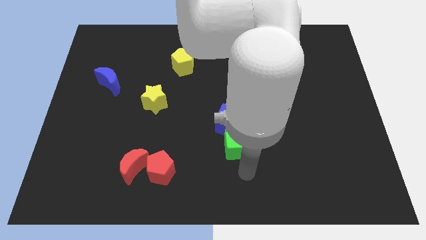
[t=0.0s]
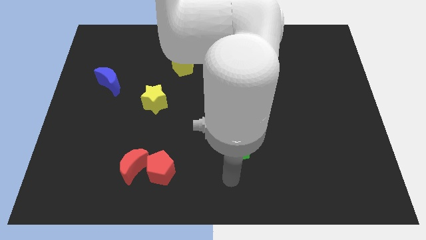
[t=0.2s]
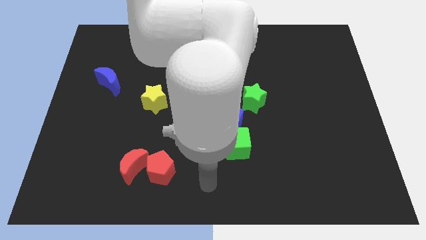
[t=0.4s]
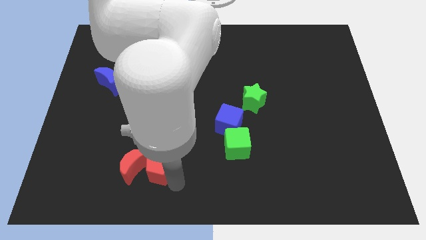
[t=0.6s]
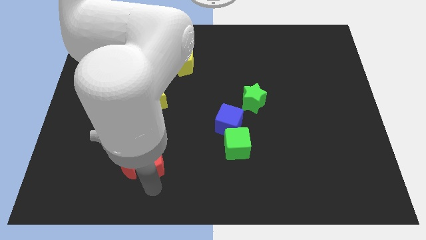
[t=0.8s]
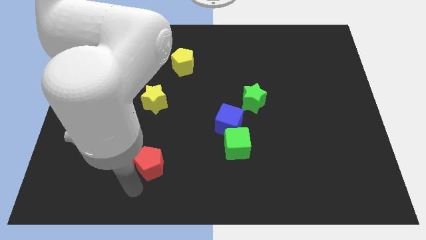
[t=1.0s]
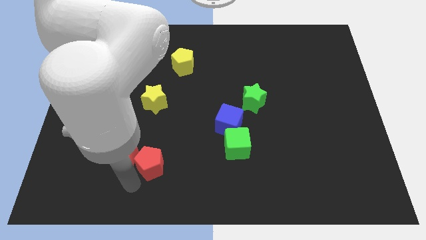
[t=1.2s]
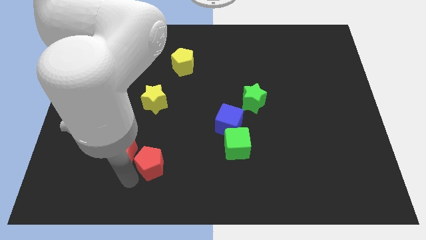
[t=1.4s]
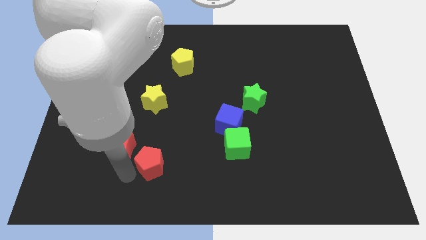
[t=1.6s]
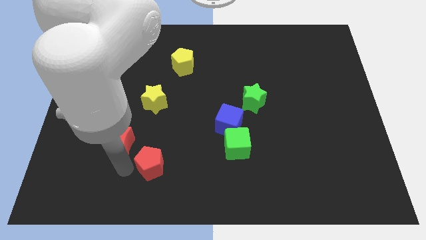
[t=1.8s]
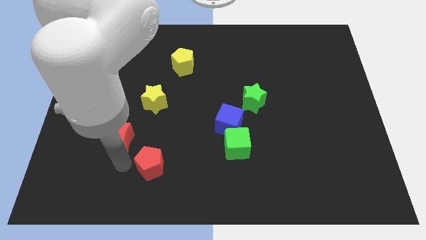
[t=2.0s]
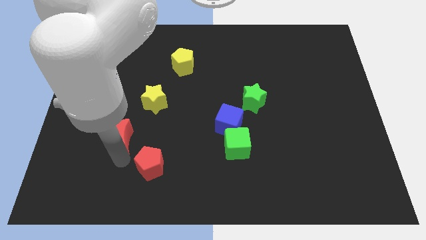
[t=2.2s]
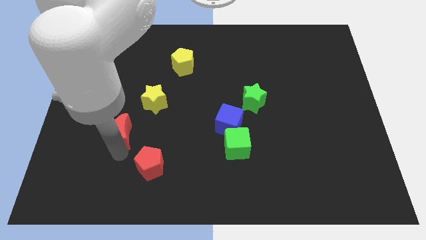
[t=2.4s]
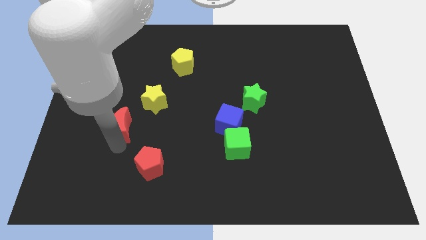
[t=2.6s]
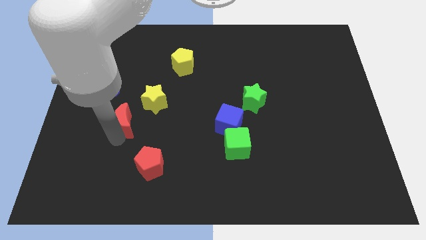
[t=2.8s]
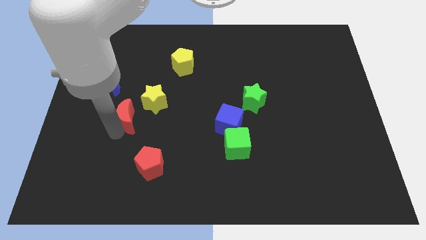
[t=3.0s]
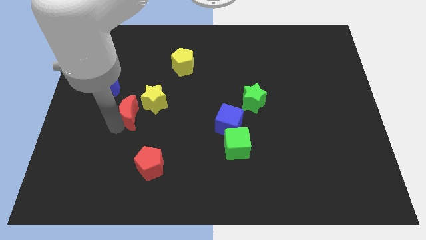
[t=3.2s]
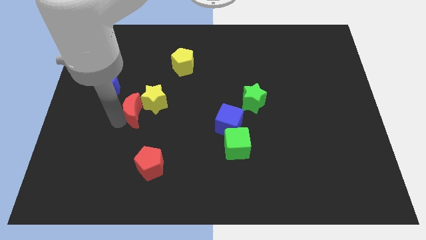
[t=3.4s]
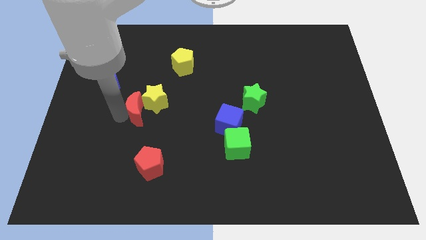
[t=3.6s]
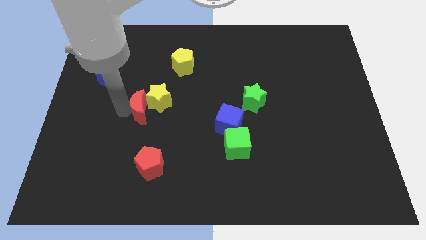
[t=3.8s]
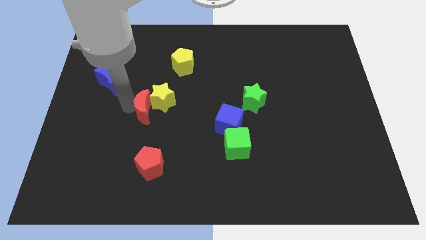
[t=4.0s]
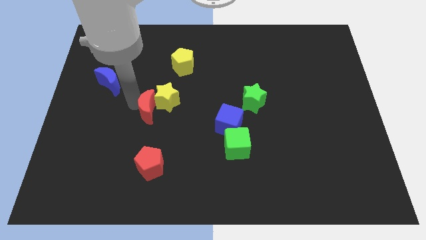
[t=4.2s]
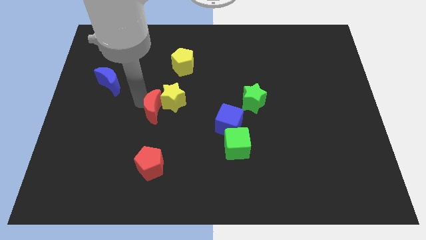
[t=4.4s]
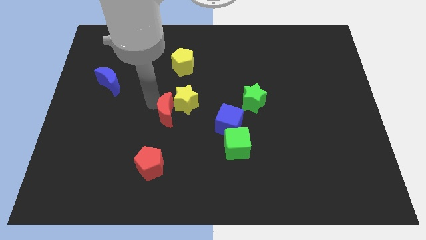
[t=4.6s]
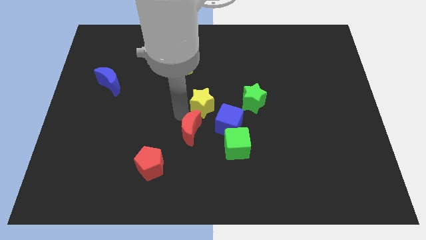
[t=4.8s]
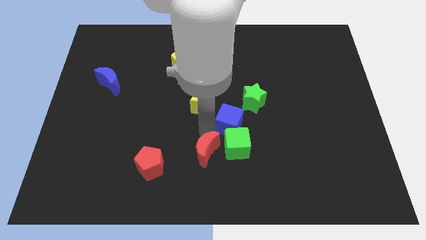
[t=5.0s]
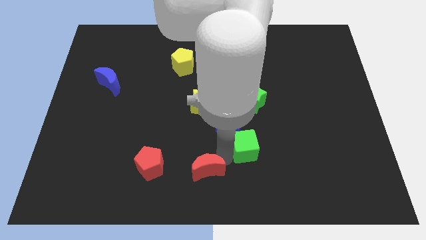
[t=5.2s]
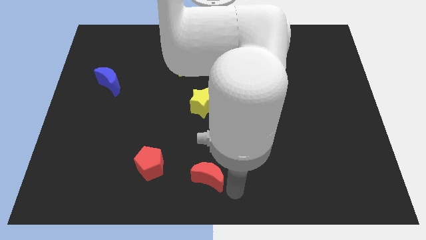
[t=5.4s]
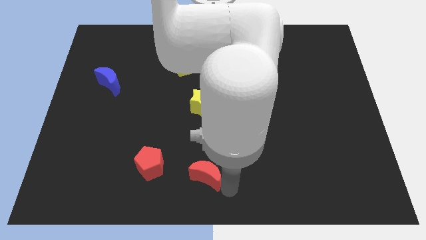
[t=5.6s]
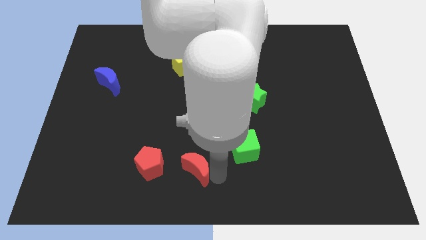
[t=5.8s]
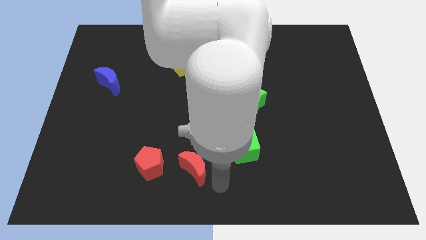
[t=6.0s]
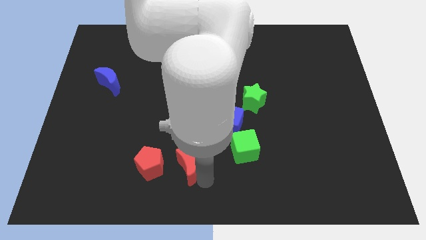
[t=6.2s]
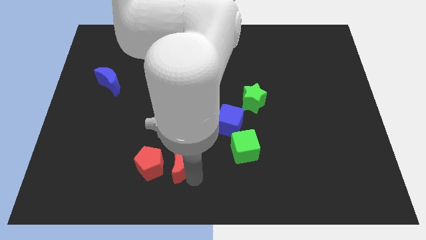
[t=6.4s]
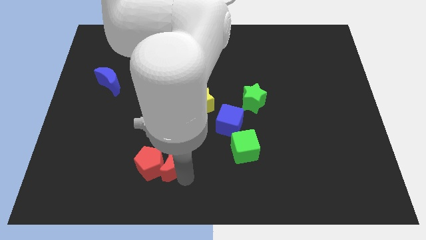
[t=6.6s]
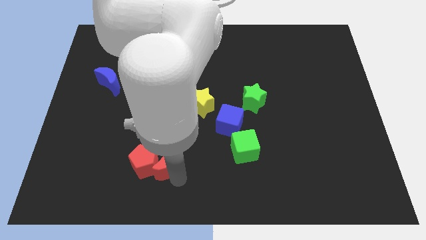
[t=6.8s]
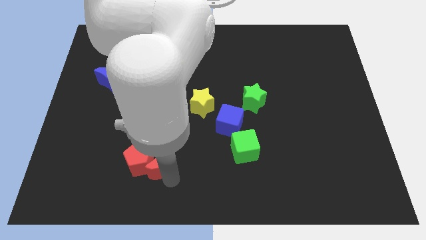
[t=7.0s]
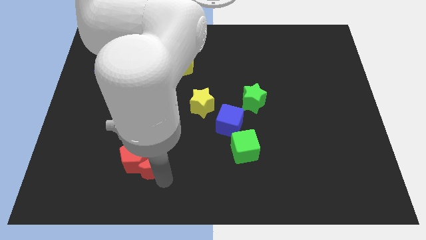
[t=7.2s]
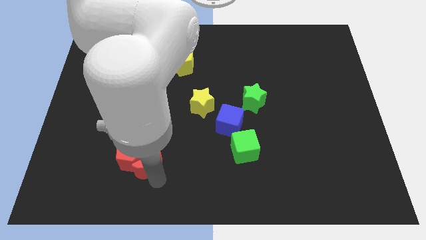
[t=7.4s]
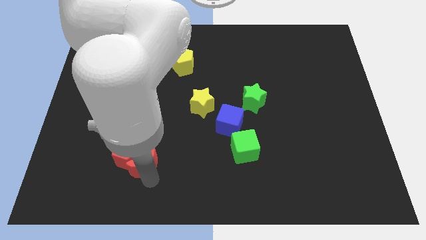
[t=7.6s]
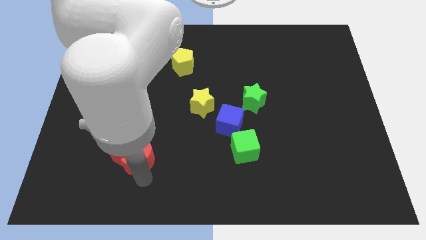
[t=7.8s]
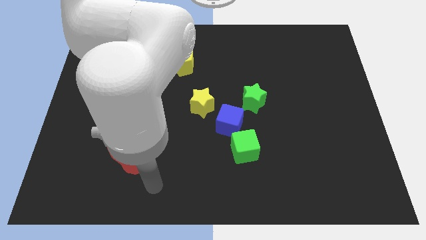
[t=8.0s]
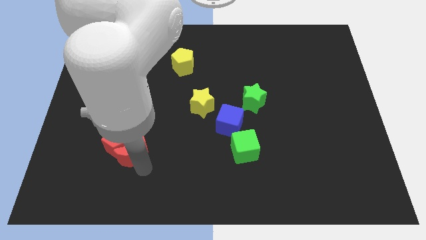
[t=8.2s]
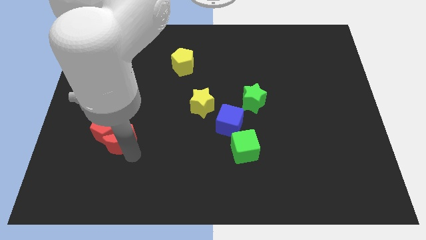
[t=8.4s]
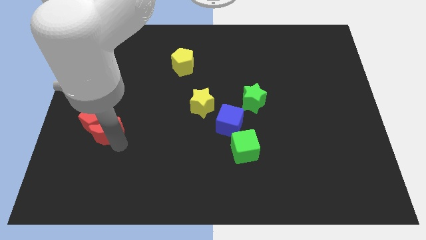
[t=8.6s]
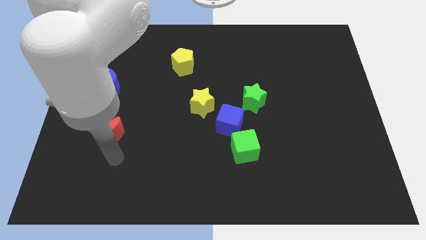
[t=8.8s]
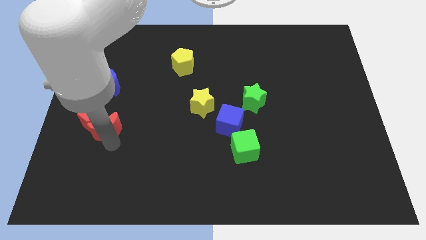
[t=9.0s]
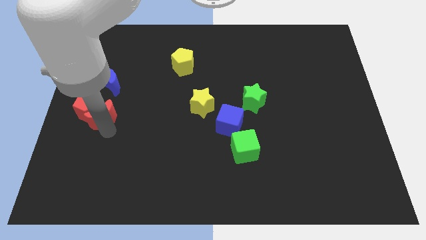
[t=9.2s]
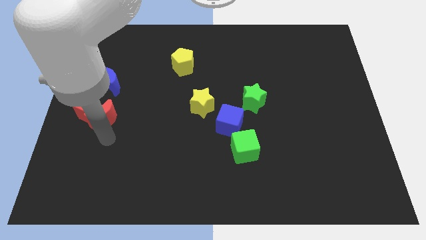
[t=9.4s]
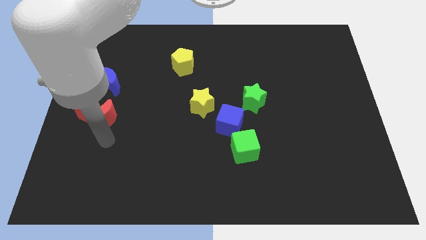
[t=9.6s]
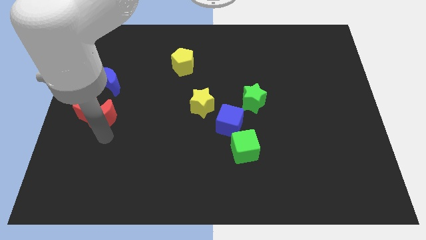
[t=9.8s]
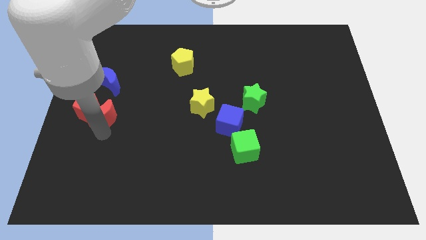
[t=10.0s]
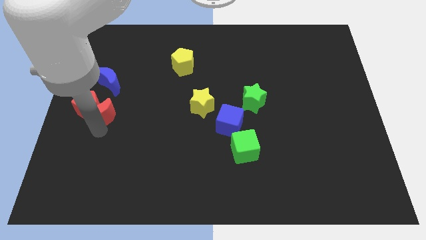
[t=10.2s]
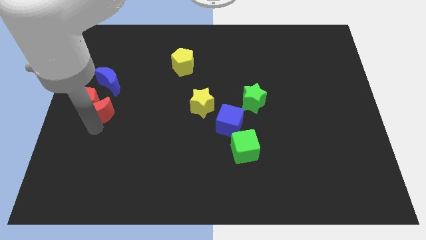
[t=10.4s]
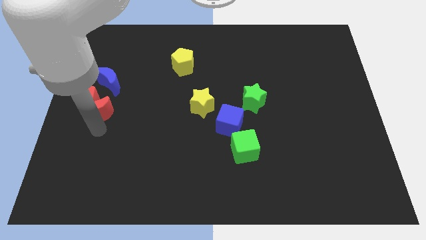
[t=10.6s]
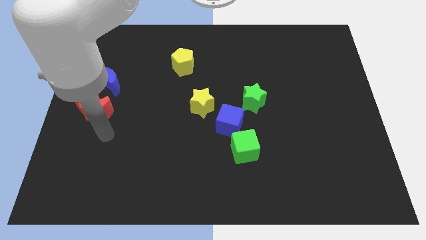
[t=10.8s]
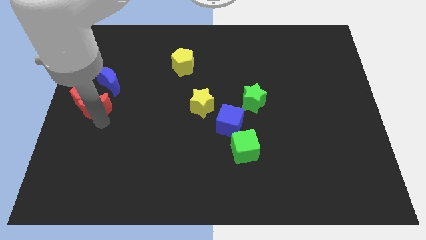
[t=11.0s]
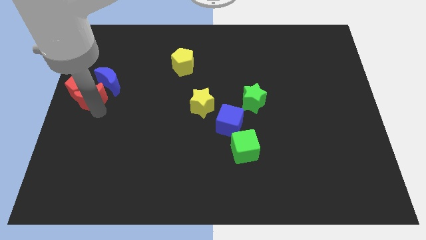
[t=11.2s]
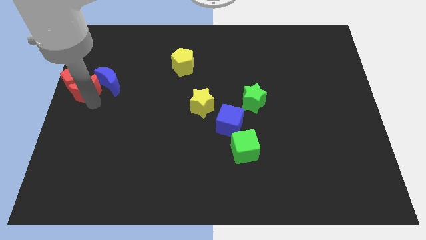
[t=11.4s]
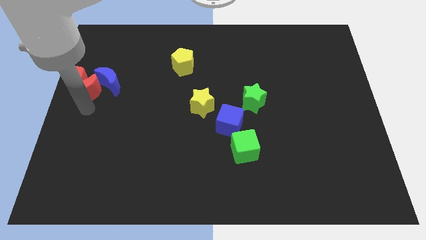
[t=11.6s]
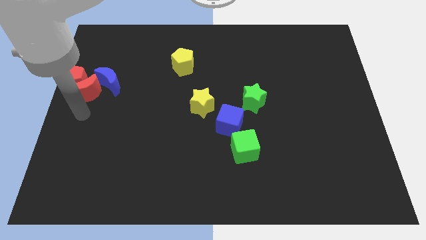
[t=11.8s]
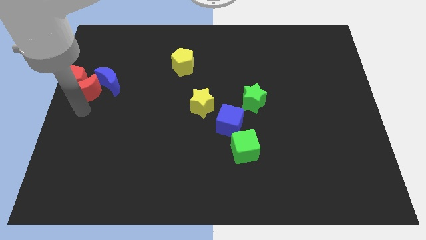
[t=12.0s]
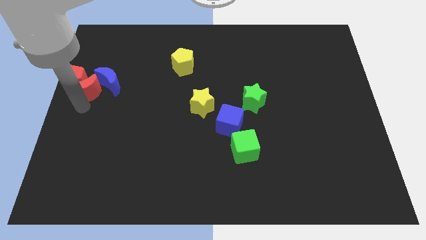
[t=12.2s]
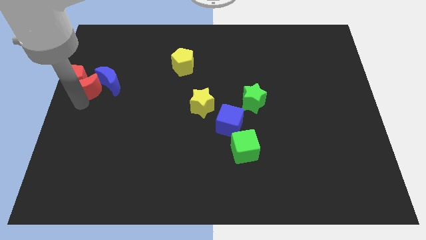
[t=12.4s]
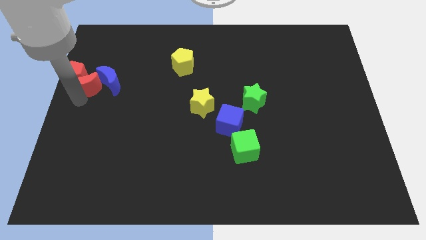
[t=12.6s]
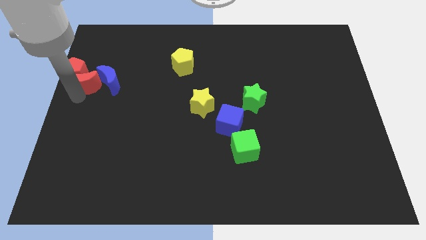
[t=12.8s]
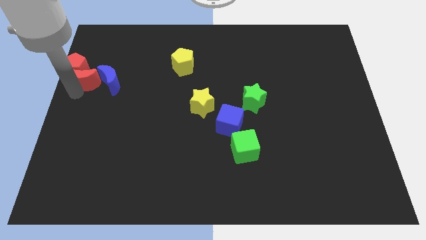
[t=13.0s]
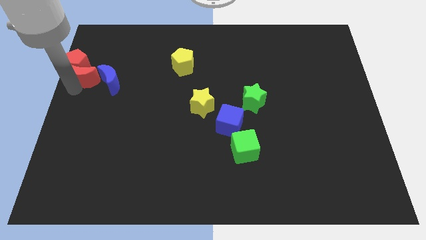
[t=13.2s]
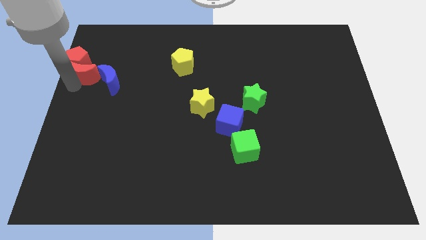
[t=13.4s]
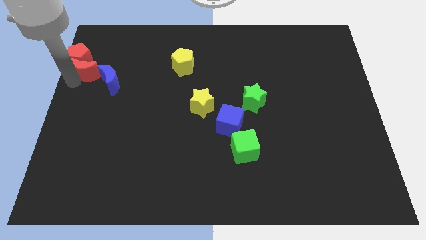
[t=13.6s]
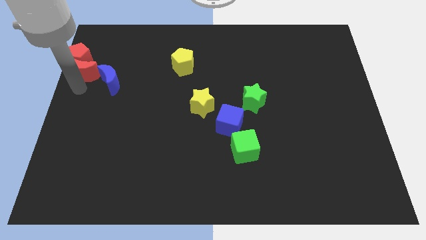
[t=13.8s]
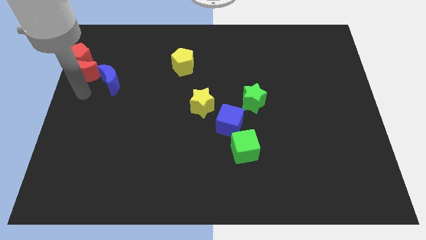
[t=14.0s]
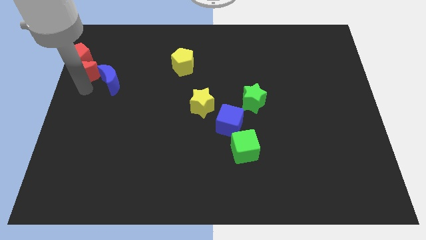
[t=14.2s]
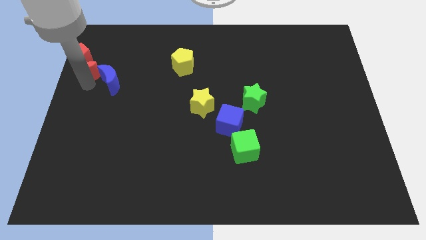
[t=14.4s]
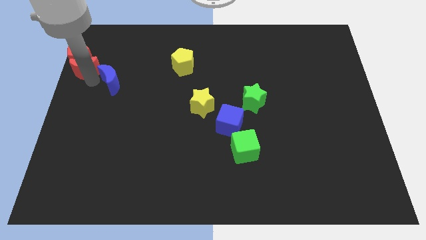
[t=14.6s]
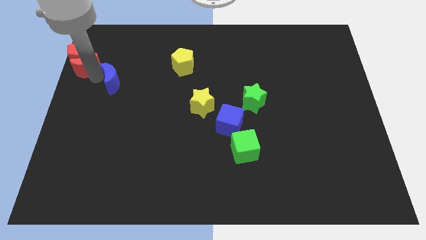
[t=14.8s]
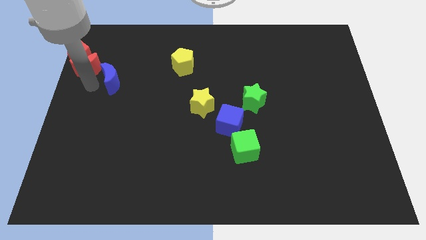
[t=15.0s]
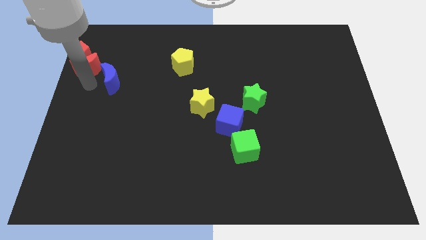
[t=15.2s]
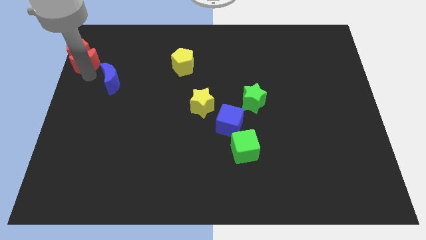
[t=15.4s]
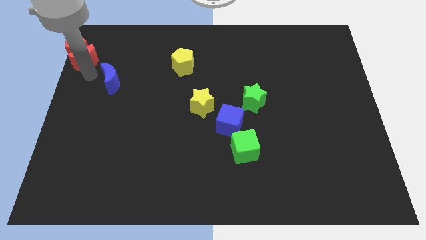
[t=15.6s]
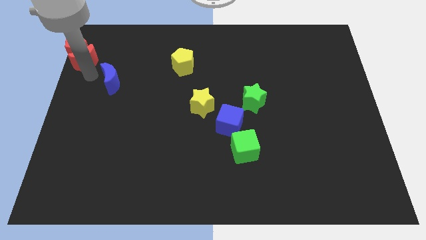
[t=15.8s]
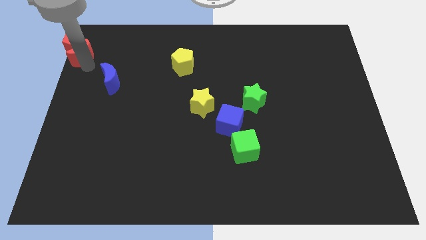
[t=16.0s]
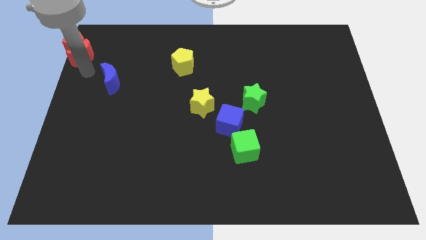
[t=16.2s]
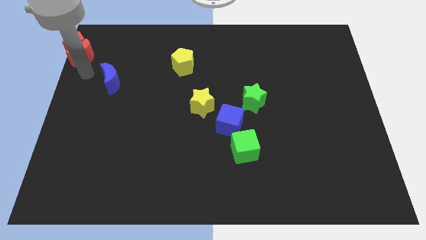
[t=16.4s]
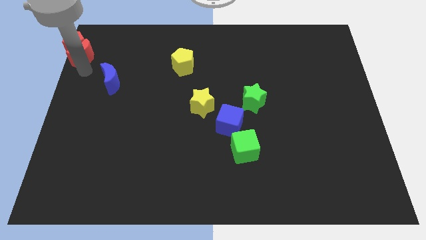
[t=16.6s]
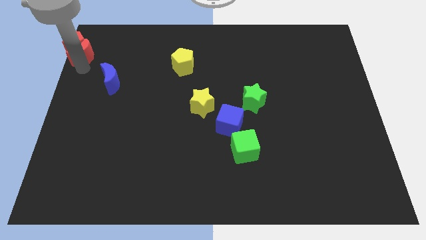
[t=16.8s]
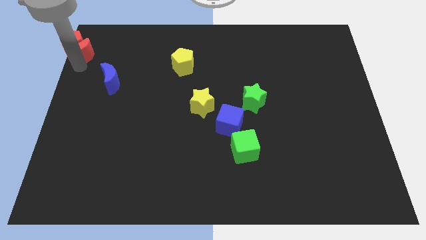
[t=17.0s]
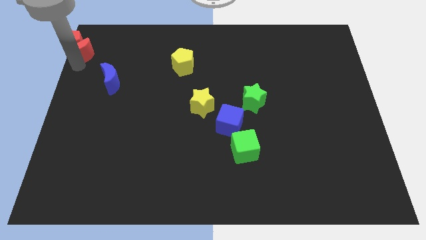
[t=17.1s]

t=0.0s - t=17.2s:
put the red moon to the top left corner
